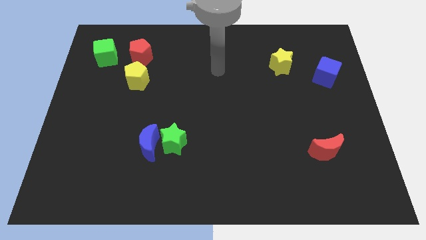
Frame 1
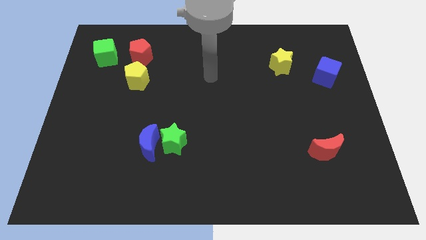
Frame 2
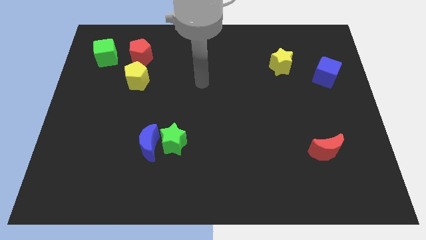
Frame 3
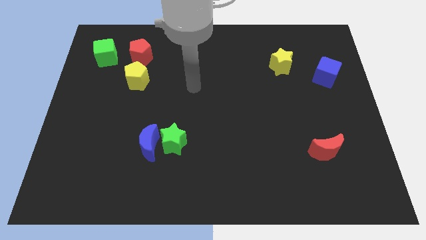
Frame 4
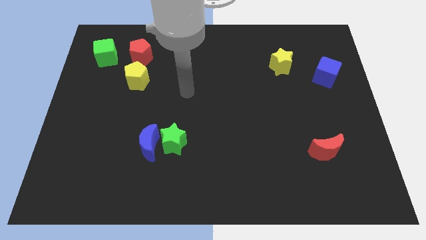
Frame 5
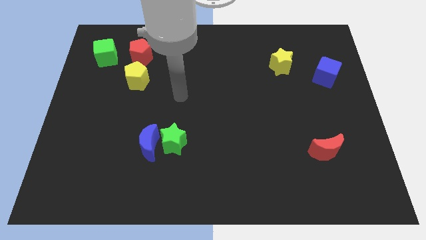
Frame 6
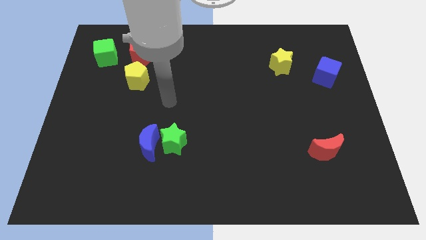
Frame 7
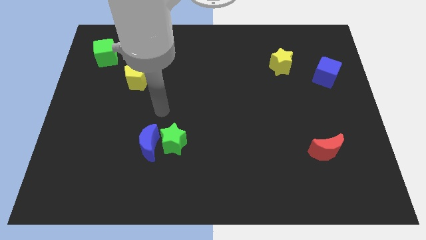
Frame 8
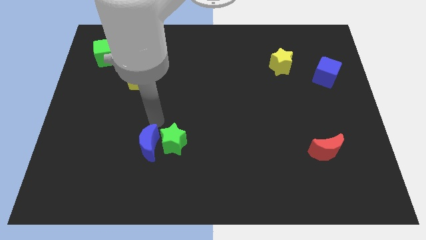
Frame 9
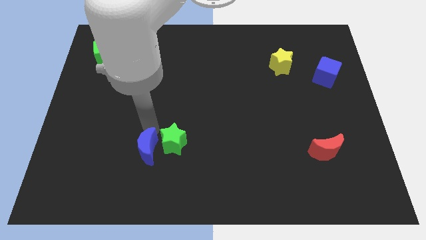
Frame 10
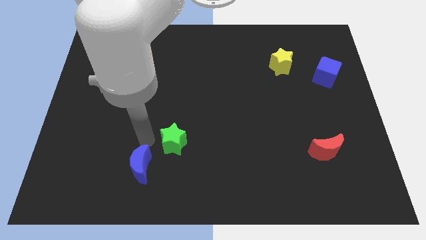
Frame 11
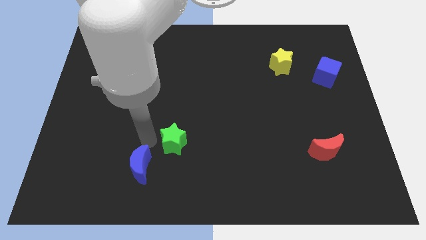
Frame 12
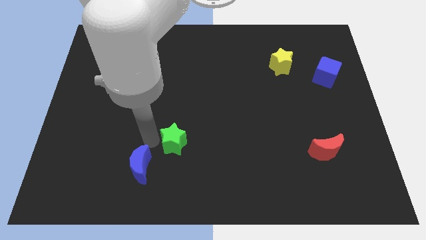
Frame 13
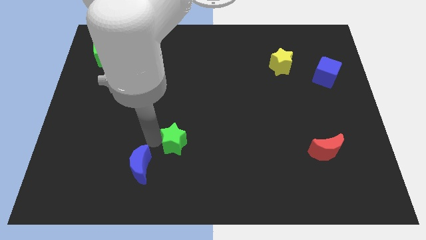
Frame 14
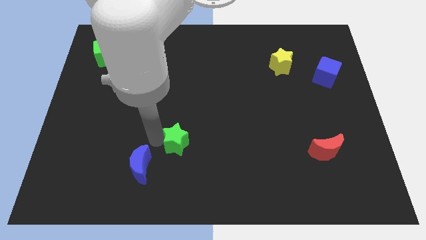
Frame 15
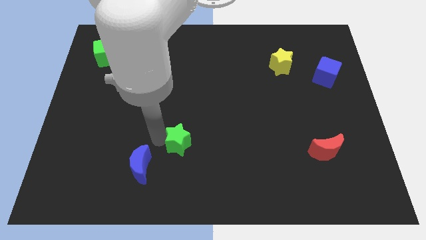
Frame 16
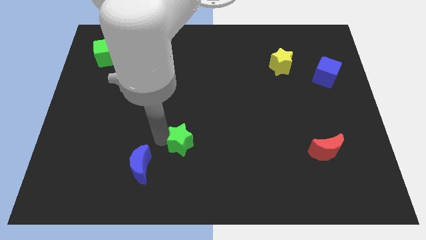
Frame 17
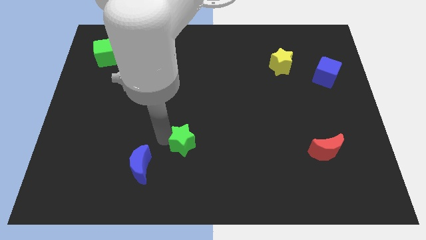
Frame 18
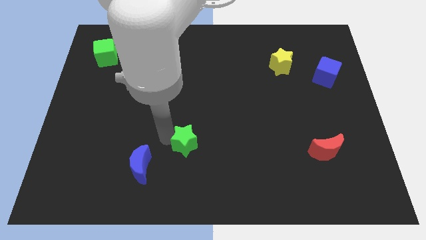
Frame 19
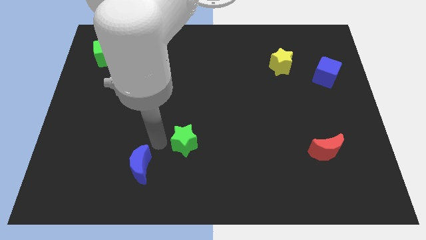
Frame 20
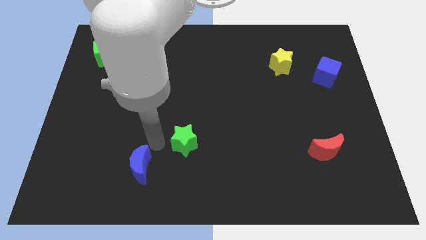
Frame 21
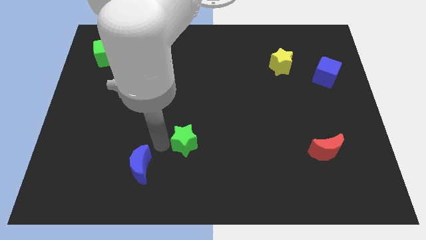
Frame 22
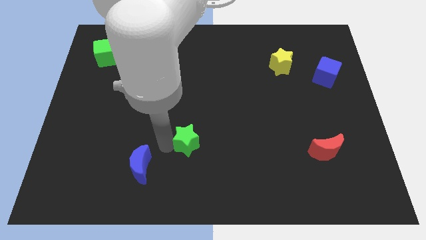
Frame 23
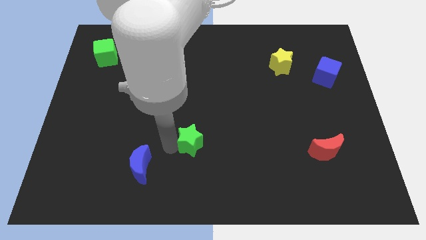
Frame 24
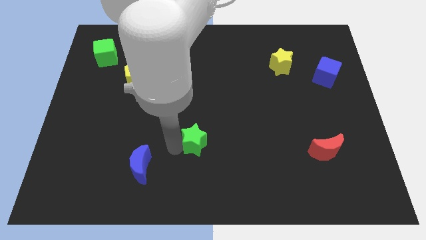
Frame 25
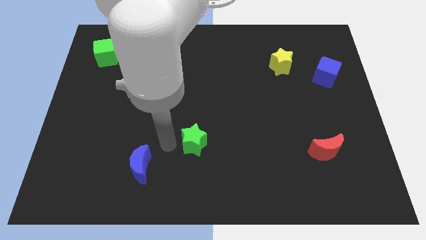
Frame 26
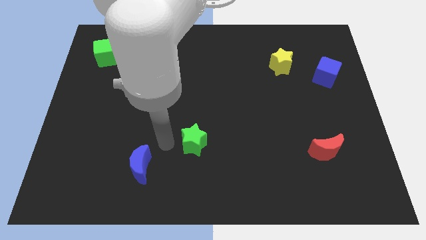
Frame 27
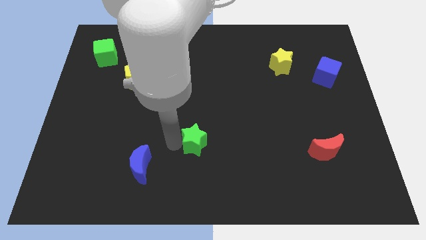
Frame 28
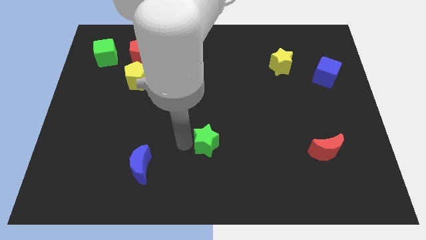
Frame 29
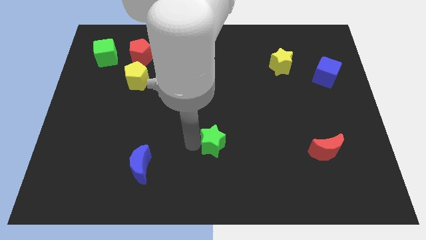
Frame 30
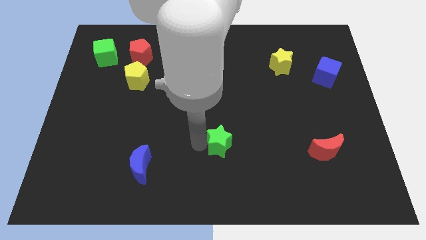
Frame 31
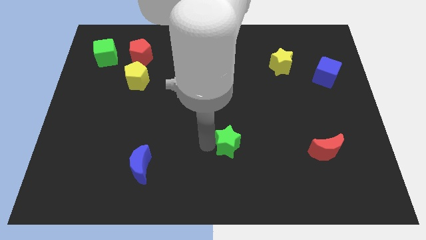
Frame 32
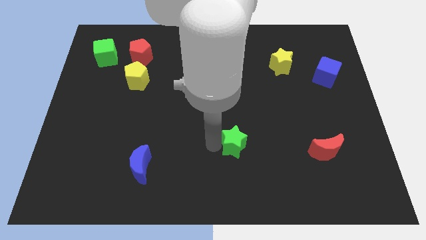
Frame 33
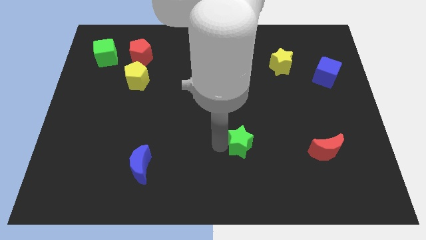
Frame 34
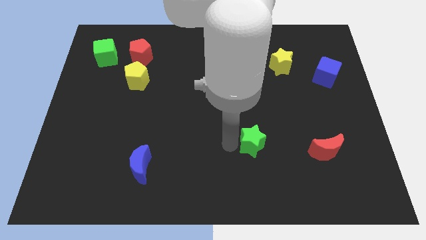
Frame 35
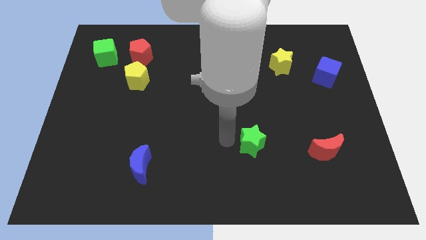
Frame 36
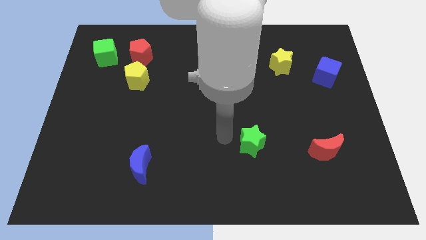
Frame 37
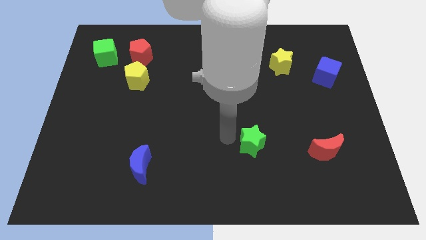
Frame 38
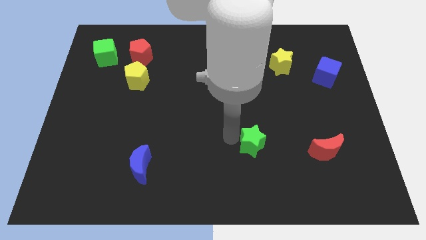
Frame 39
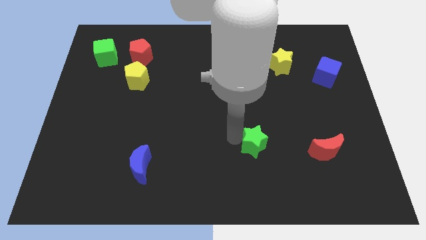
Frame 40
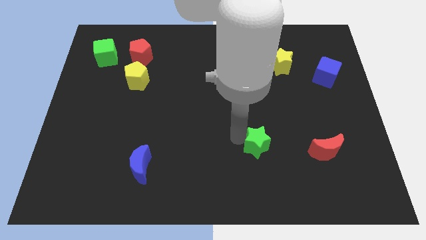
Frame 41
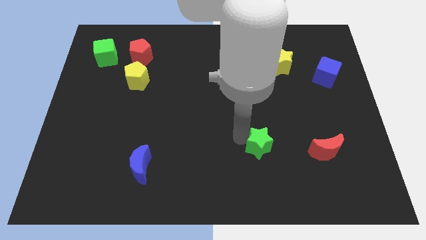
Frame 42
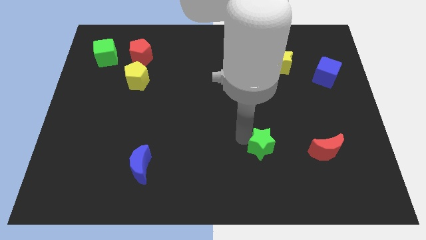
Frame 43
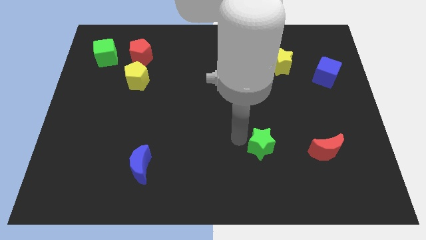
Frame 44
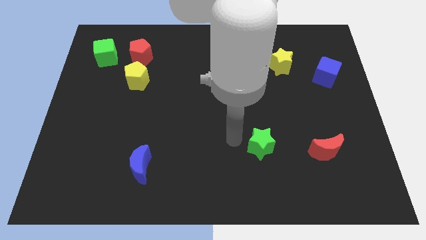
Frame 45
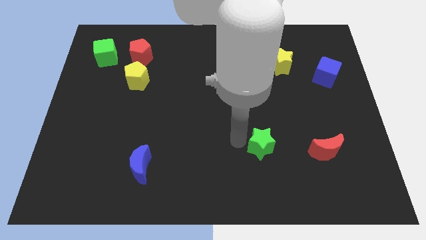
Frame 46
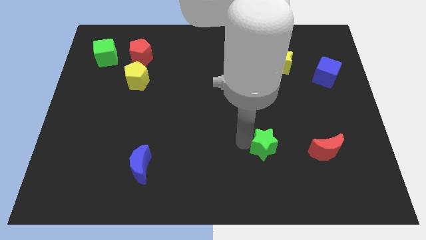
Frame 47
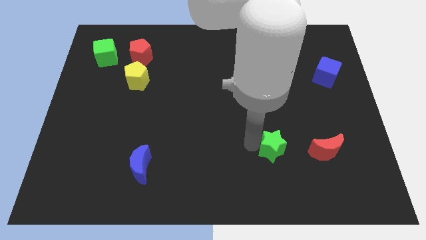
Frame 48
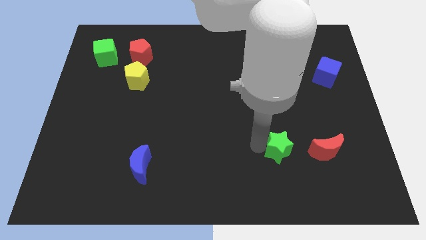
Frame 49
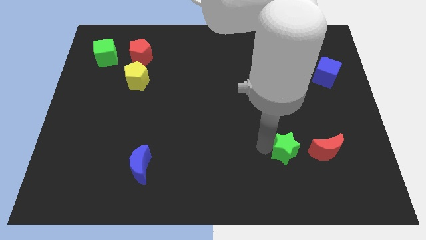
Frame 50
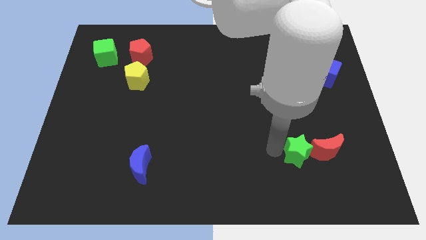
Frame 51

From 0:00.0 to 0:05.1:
move the green star next to the red moon

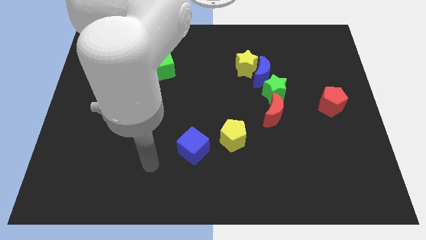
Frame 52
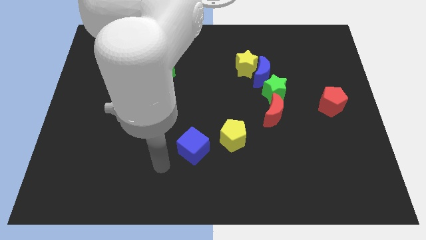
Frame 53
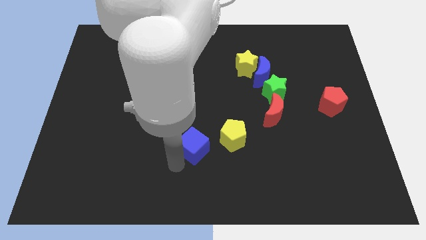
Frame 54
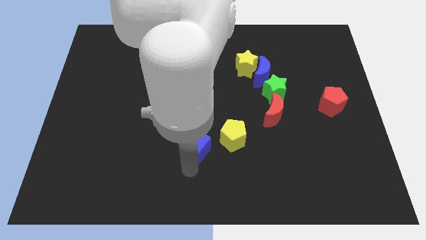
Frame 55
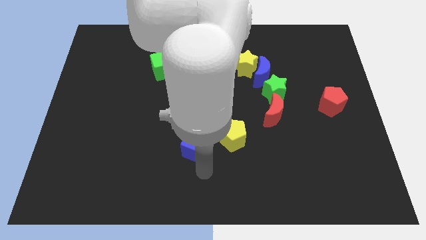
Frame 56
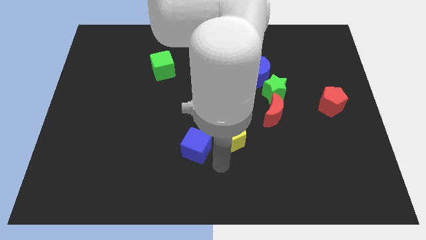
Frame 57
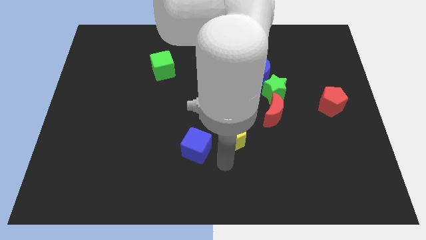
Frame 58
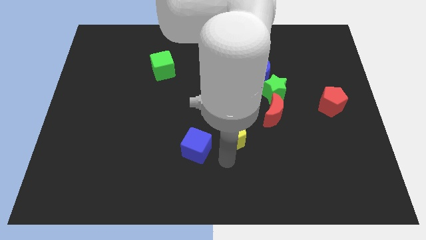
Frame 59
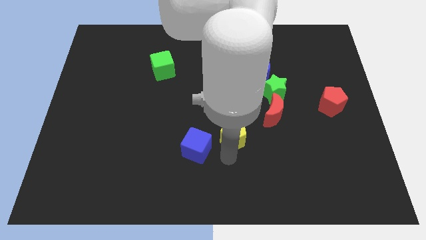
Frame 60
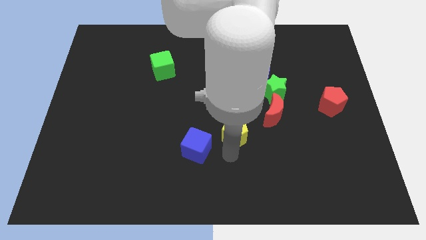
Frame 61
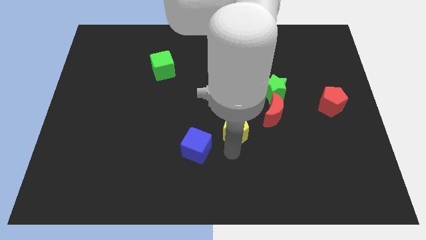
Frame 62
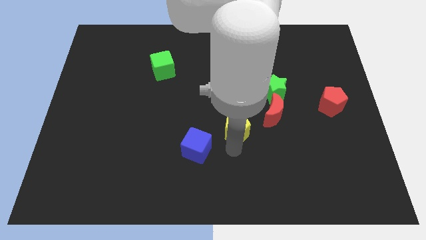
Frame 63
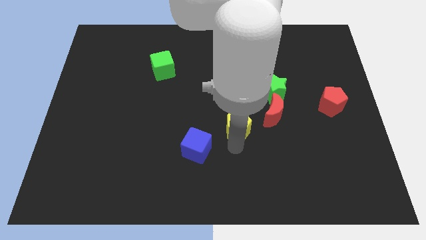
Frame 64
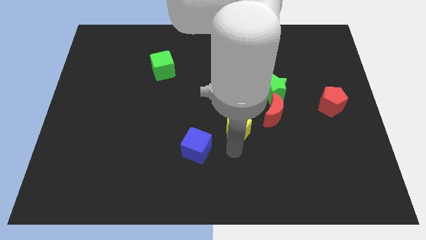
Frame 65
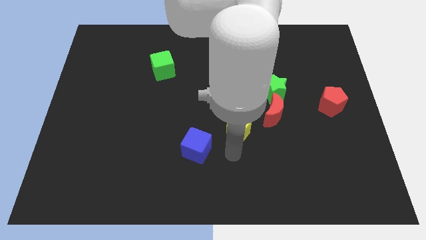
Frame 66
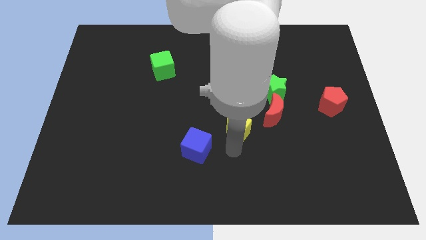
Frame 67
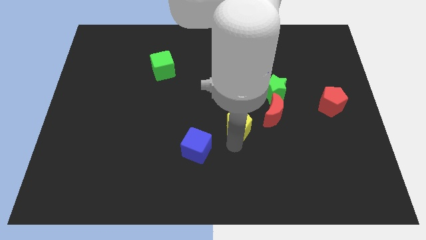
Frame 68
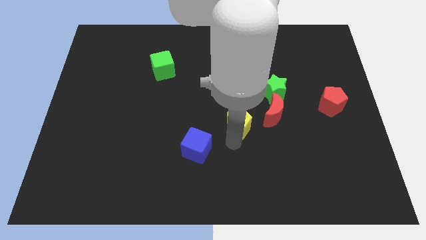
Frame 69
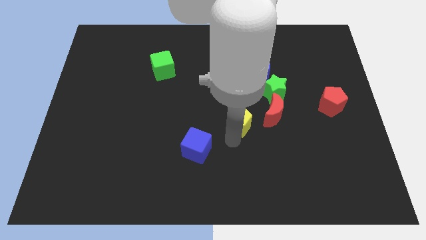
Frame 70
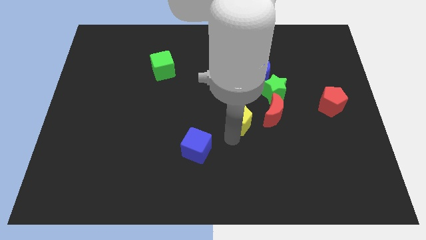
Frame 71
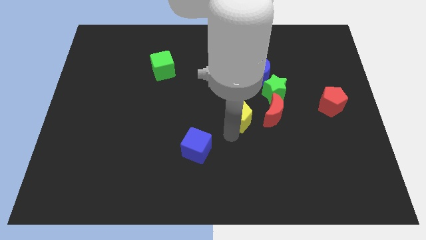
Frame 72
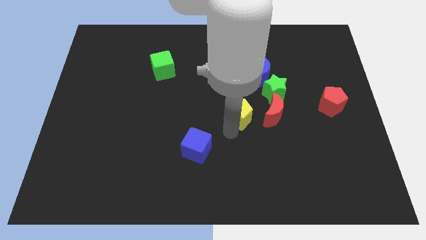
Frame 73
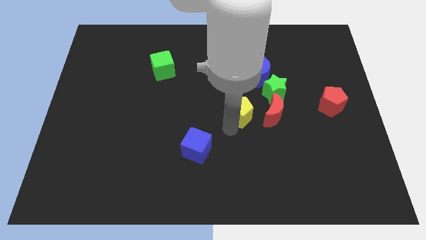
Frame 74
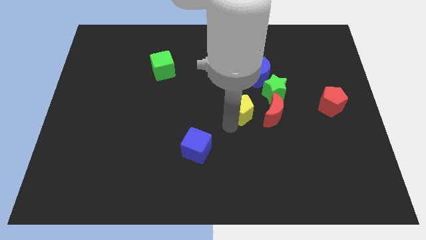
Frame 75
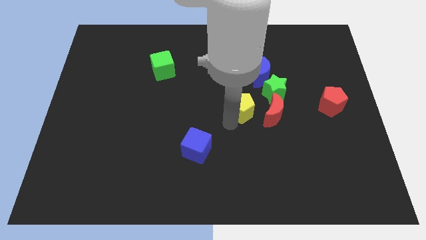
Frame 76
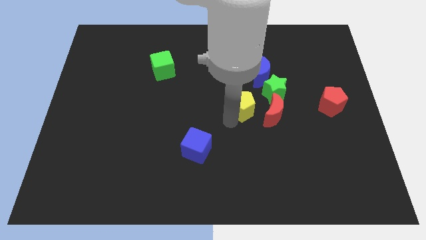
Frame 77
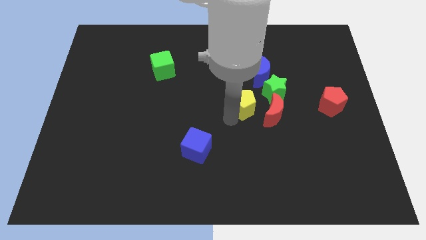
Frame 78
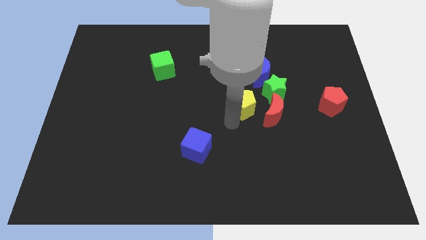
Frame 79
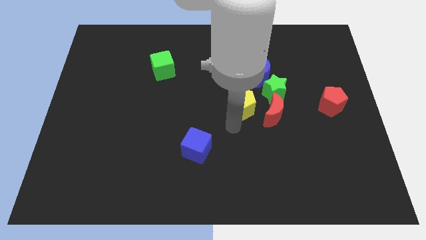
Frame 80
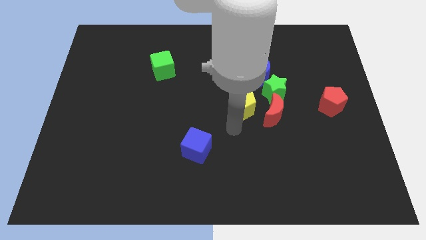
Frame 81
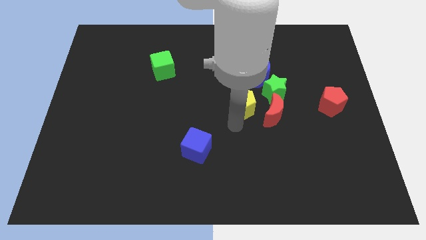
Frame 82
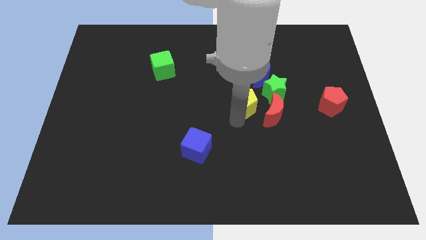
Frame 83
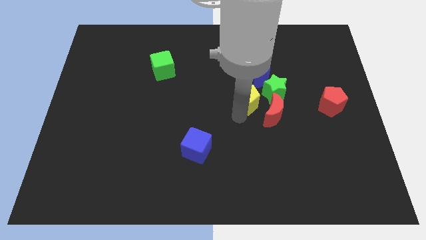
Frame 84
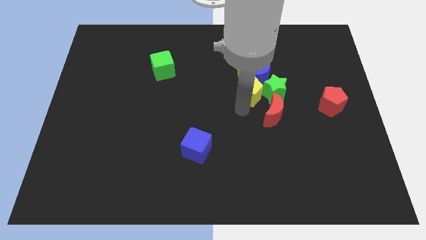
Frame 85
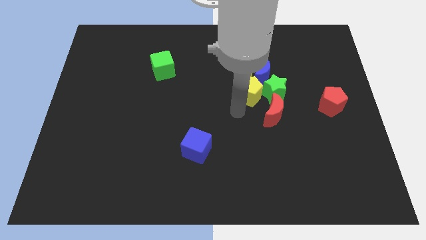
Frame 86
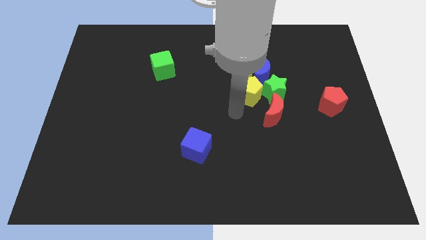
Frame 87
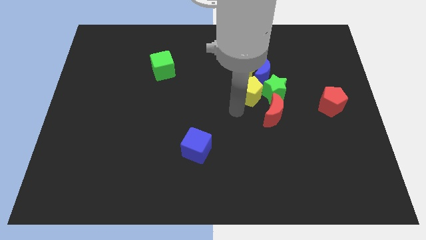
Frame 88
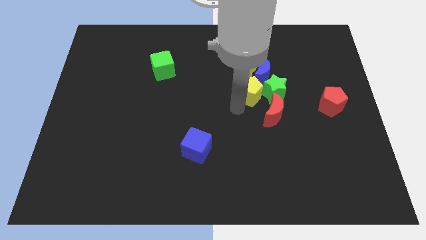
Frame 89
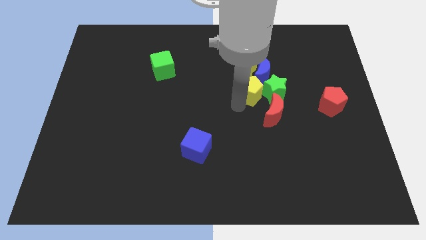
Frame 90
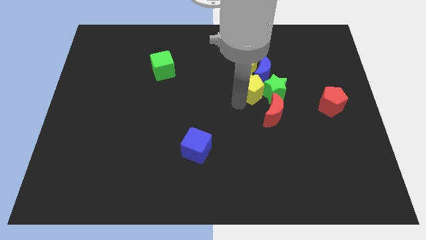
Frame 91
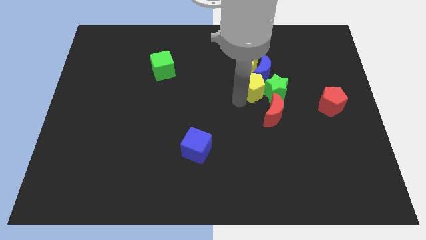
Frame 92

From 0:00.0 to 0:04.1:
push the yellow pentagon to the blue moon
